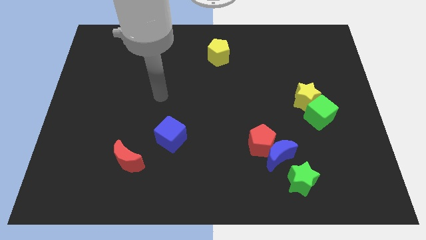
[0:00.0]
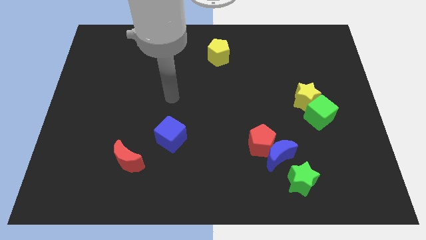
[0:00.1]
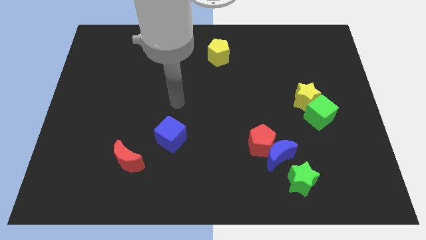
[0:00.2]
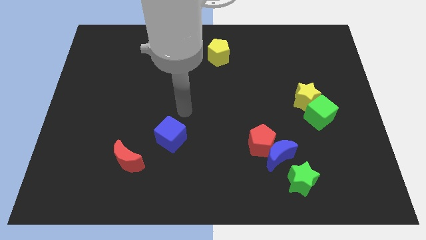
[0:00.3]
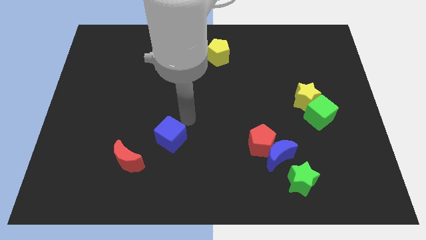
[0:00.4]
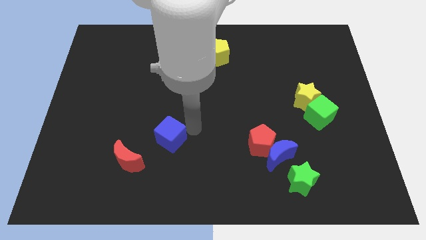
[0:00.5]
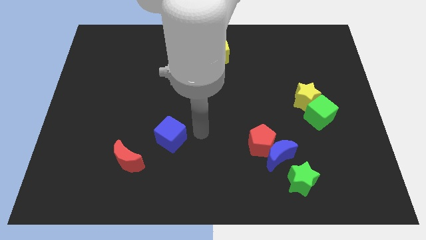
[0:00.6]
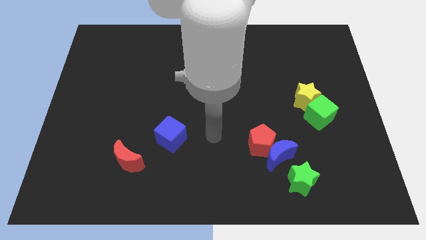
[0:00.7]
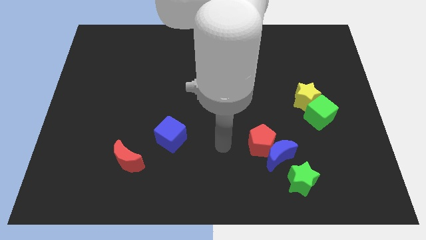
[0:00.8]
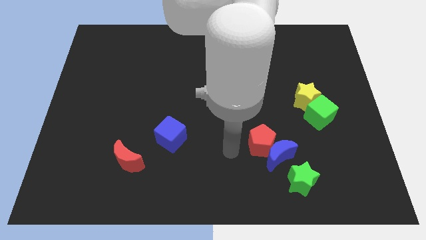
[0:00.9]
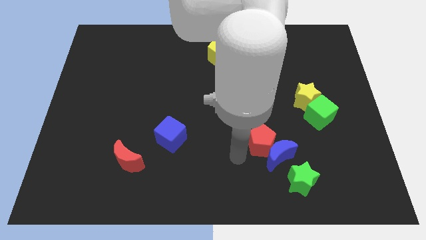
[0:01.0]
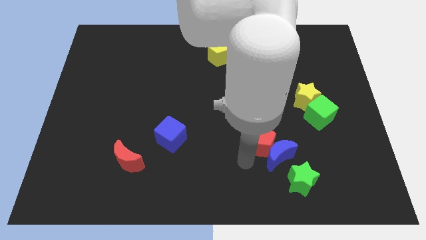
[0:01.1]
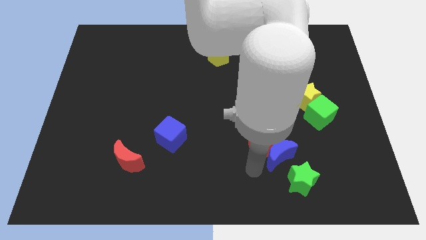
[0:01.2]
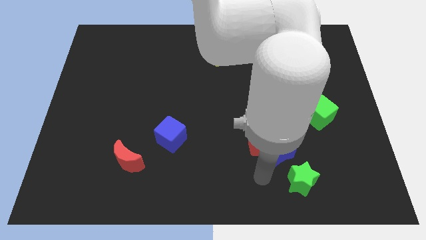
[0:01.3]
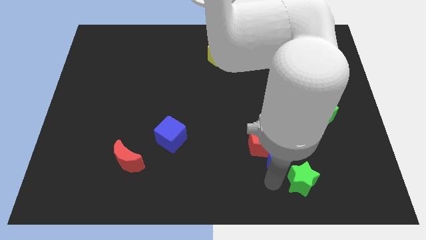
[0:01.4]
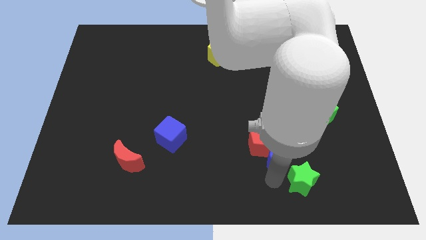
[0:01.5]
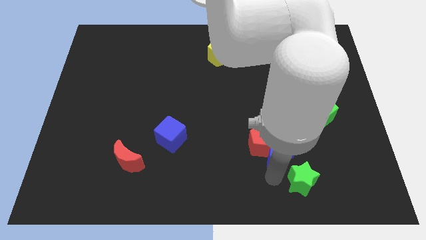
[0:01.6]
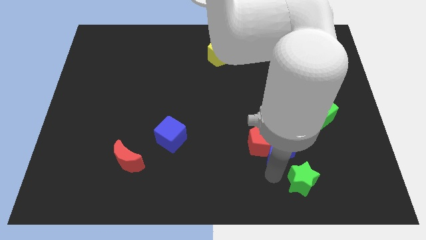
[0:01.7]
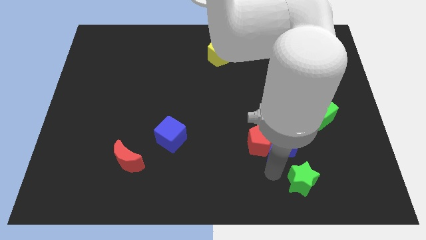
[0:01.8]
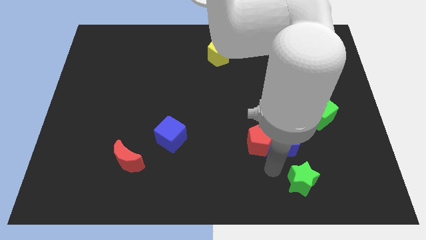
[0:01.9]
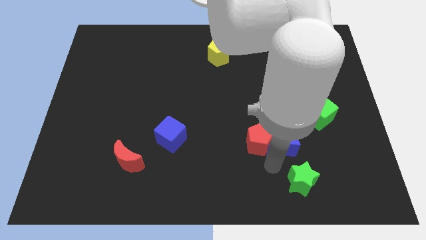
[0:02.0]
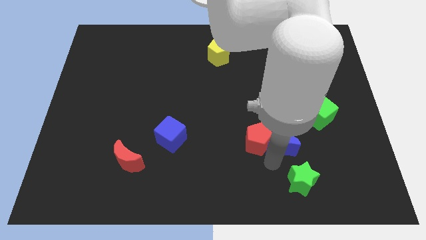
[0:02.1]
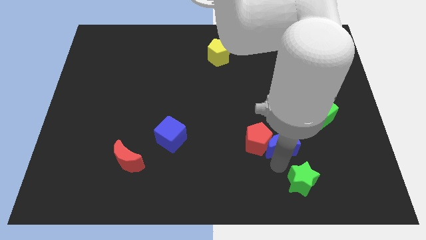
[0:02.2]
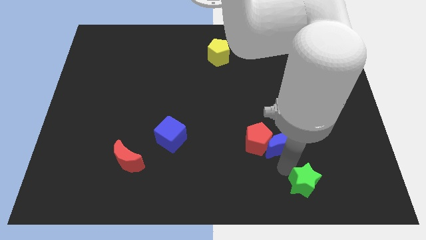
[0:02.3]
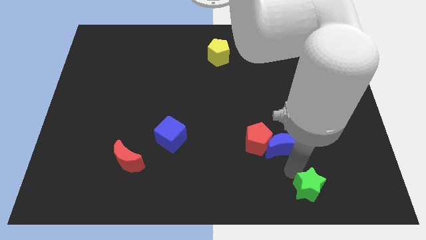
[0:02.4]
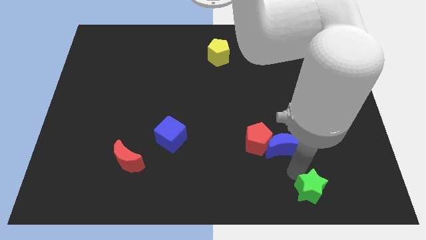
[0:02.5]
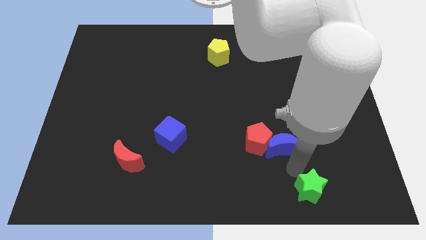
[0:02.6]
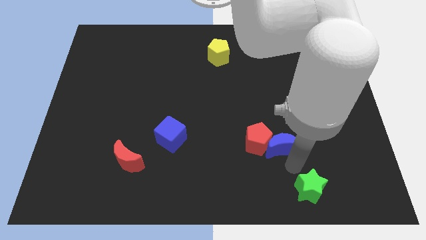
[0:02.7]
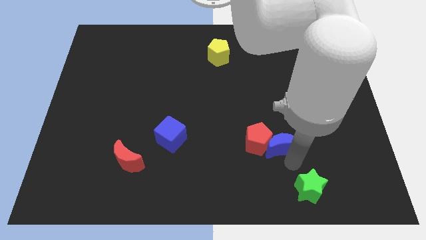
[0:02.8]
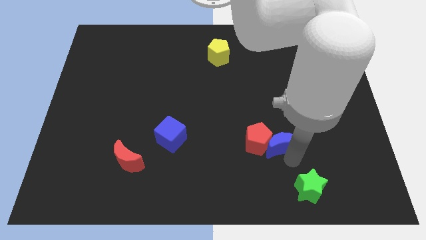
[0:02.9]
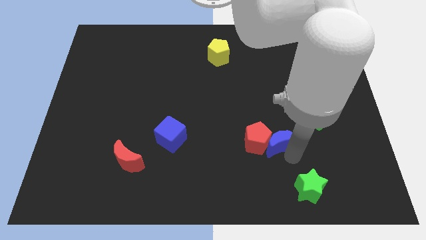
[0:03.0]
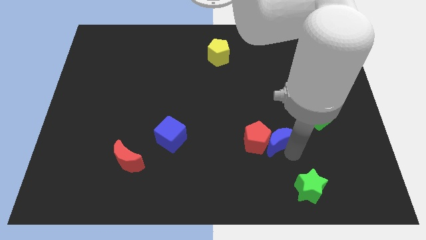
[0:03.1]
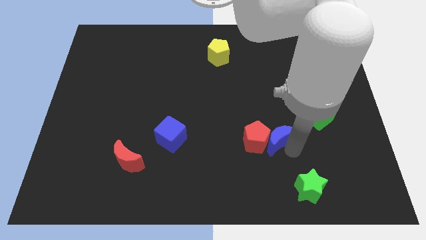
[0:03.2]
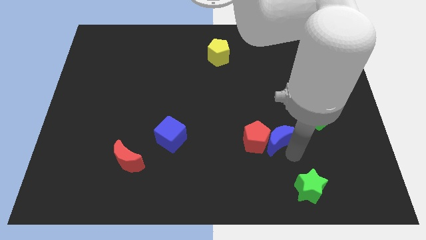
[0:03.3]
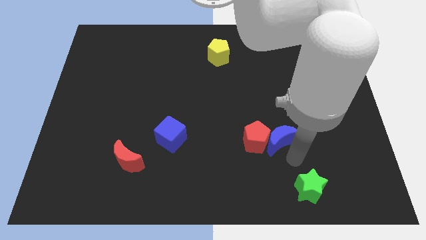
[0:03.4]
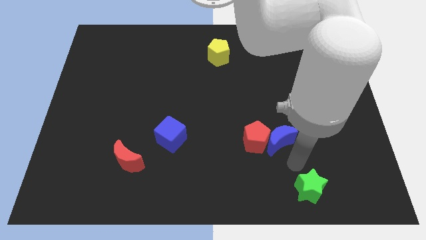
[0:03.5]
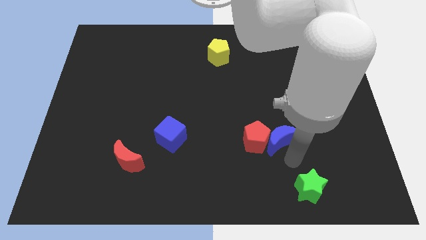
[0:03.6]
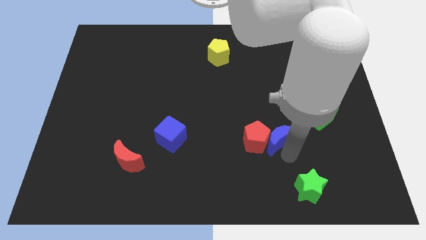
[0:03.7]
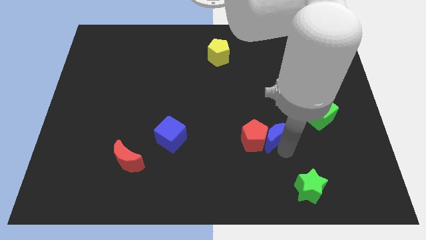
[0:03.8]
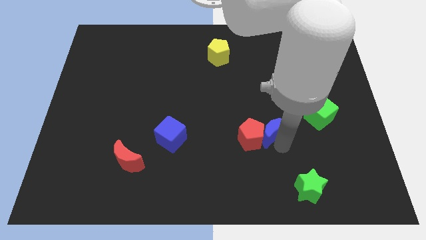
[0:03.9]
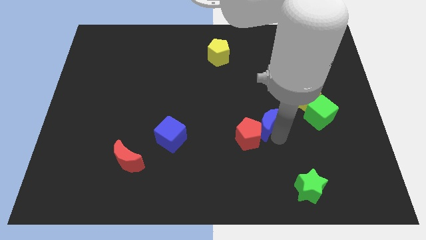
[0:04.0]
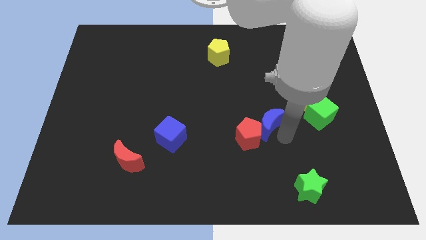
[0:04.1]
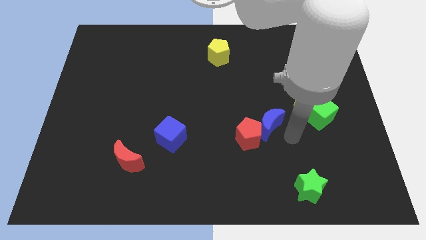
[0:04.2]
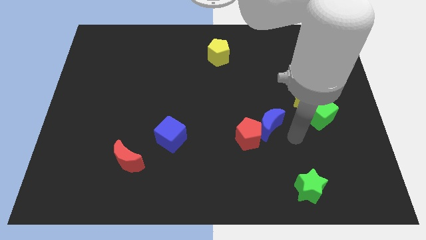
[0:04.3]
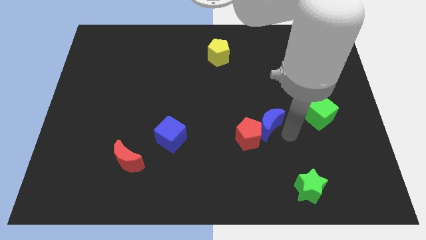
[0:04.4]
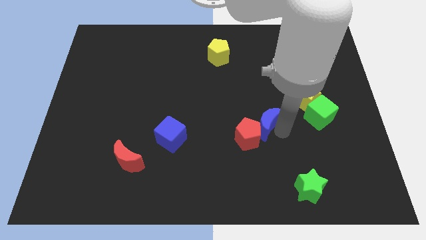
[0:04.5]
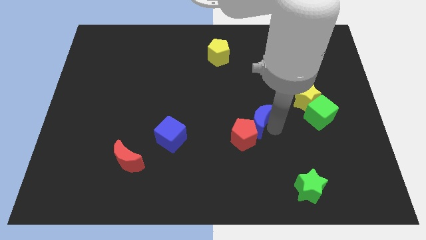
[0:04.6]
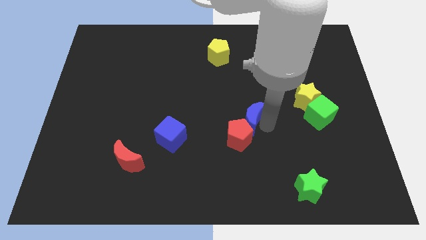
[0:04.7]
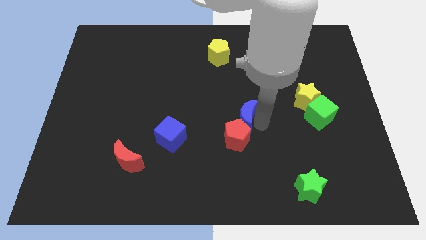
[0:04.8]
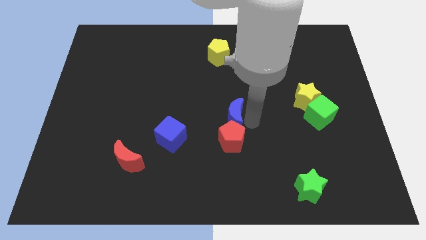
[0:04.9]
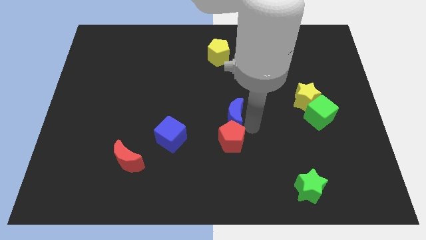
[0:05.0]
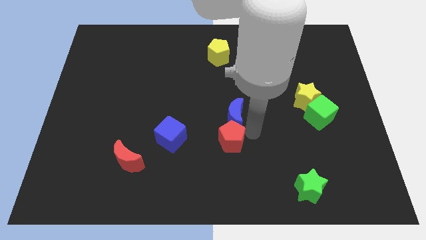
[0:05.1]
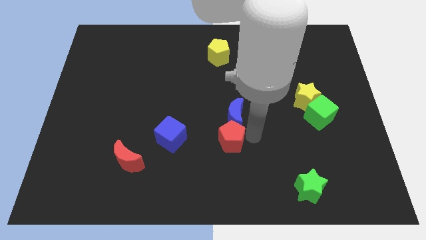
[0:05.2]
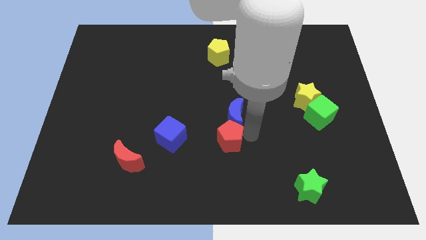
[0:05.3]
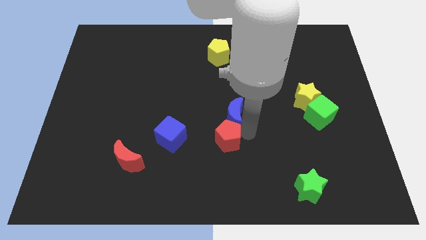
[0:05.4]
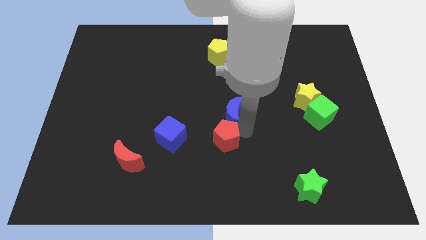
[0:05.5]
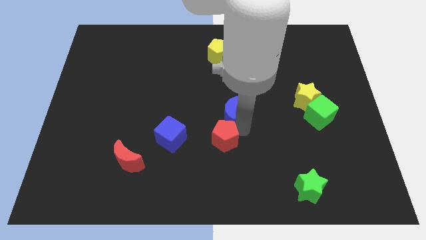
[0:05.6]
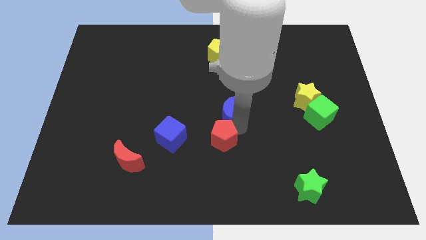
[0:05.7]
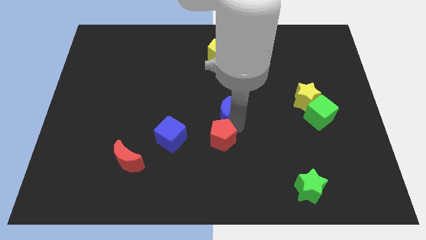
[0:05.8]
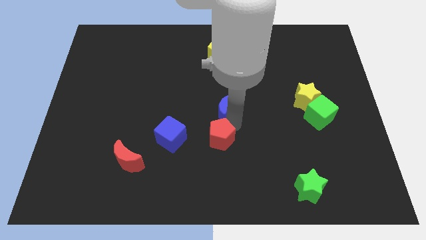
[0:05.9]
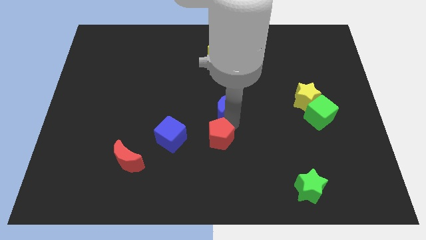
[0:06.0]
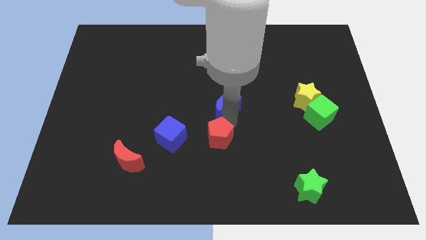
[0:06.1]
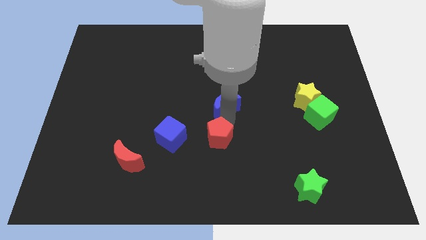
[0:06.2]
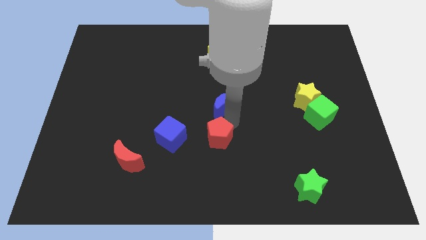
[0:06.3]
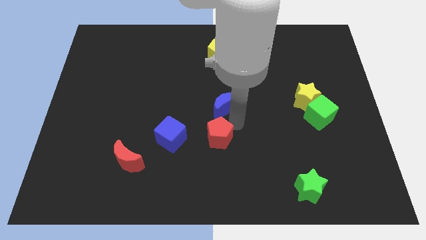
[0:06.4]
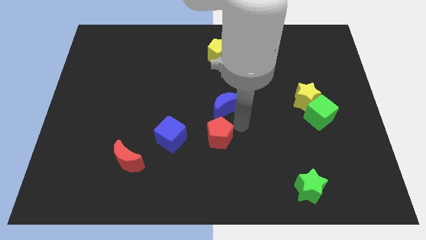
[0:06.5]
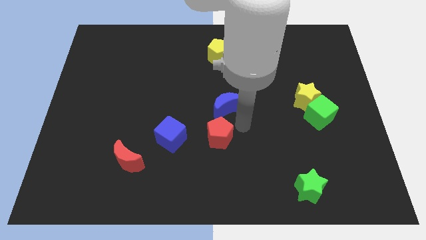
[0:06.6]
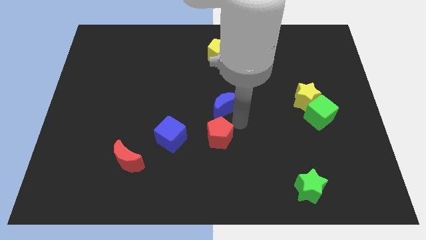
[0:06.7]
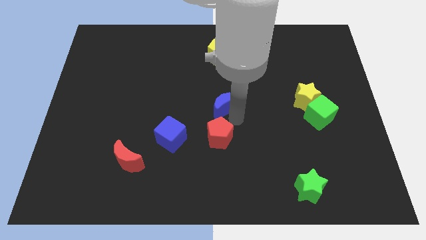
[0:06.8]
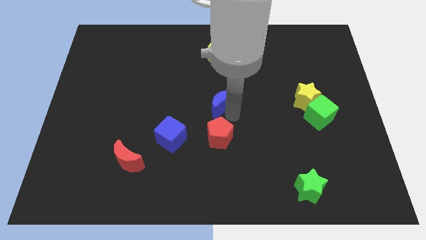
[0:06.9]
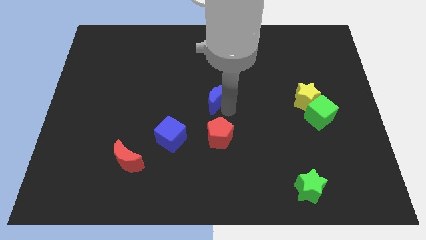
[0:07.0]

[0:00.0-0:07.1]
move the blue moon up and then left

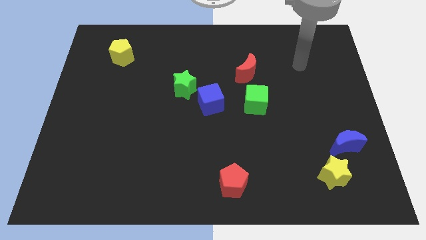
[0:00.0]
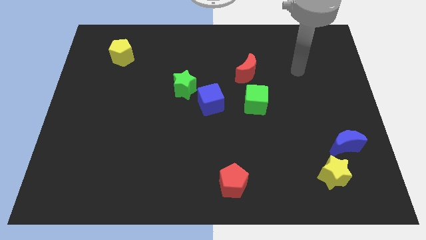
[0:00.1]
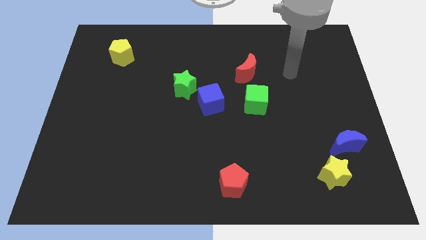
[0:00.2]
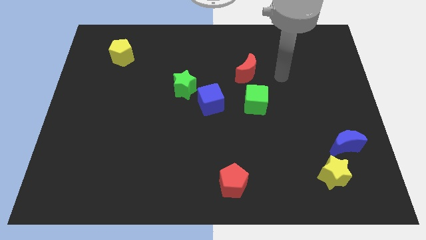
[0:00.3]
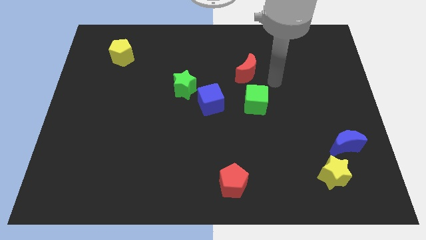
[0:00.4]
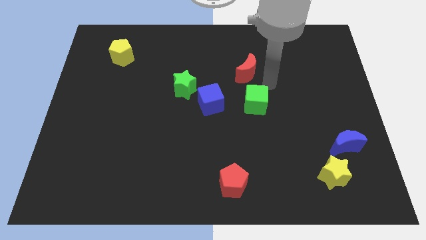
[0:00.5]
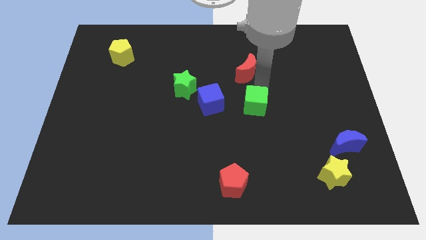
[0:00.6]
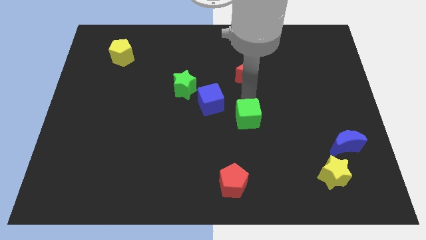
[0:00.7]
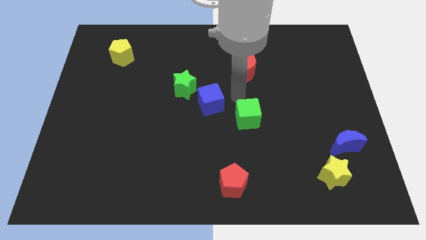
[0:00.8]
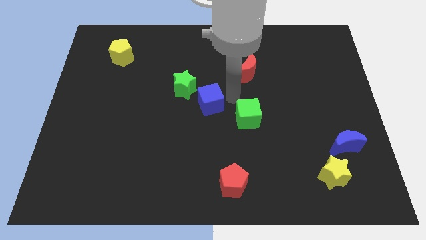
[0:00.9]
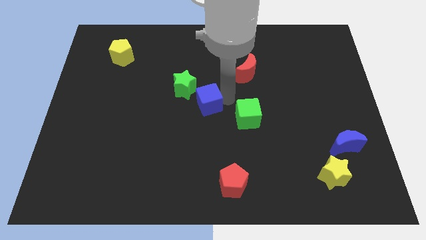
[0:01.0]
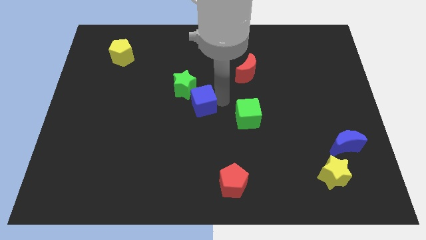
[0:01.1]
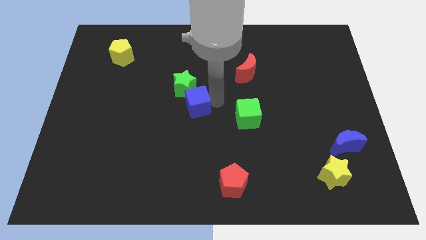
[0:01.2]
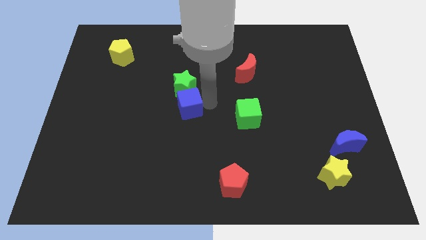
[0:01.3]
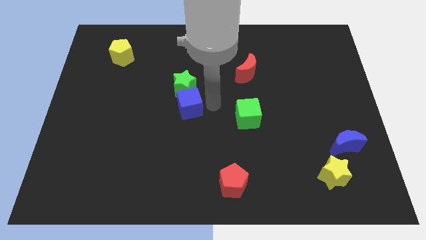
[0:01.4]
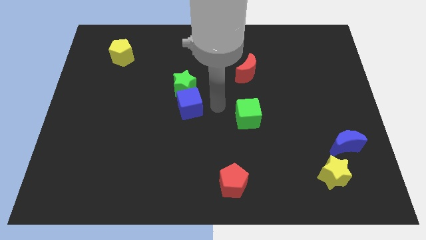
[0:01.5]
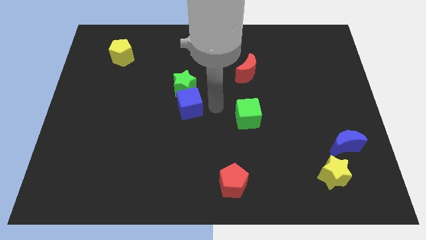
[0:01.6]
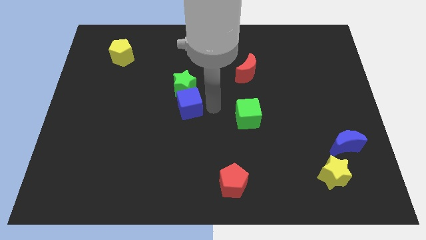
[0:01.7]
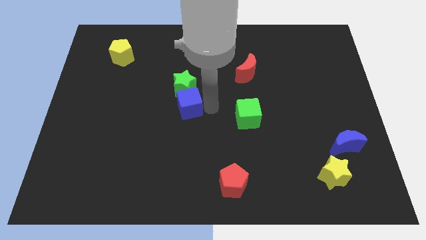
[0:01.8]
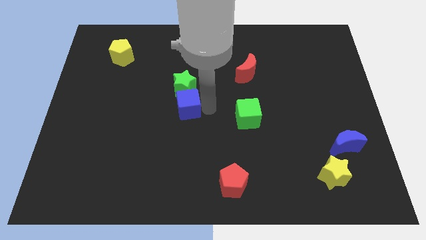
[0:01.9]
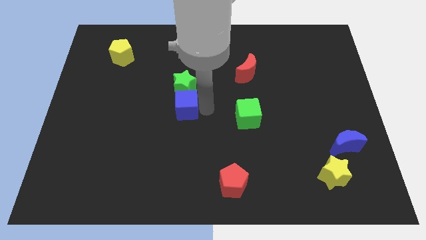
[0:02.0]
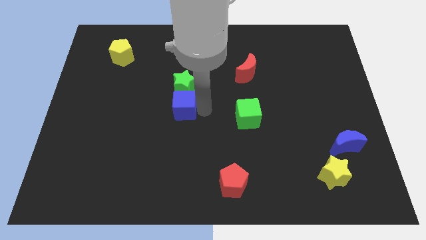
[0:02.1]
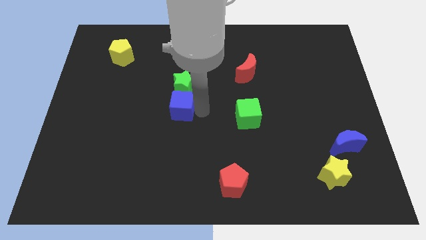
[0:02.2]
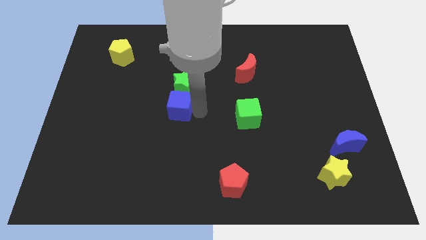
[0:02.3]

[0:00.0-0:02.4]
move the blue cube to the left a little
